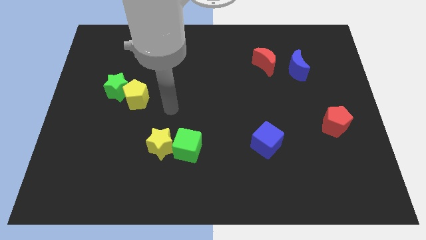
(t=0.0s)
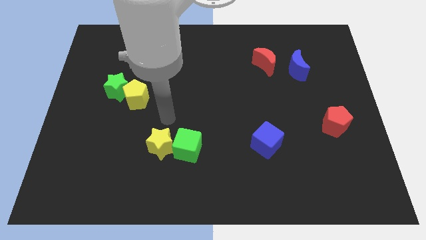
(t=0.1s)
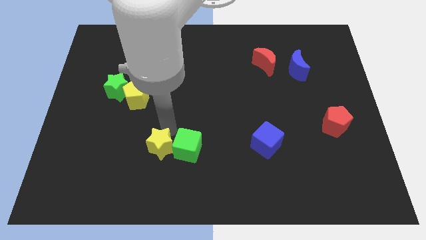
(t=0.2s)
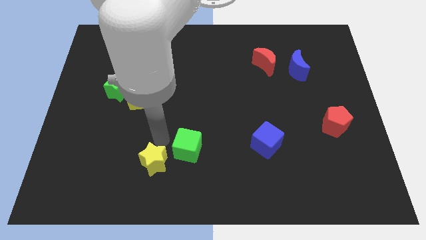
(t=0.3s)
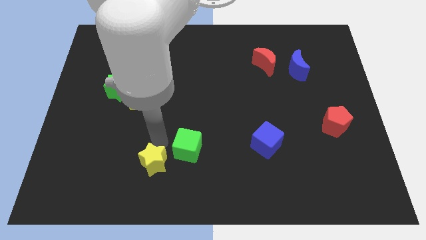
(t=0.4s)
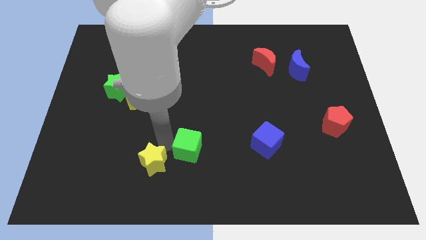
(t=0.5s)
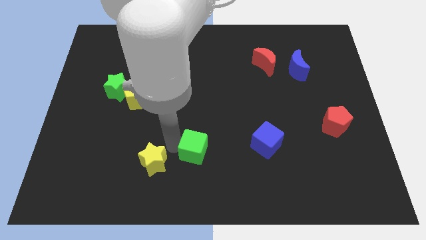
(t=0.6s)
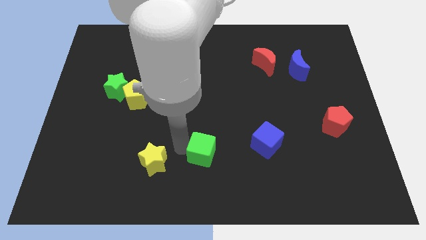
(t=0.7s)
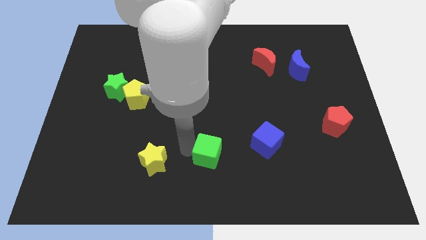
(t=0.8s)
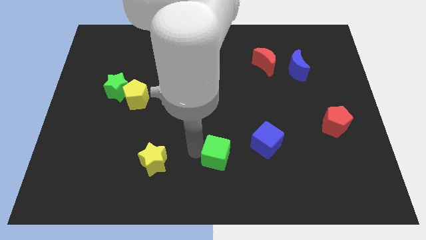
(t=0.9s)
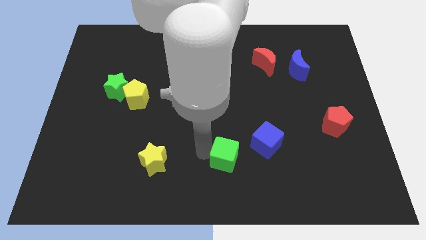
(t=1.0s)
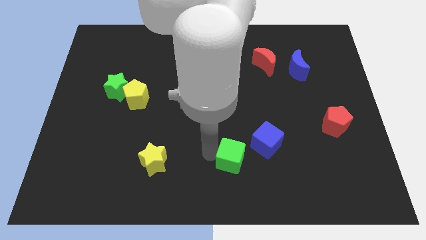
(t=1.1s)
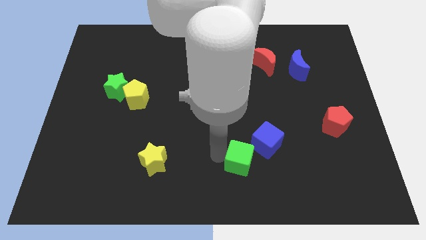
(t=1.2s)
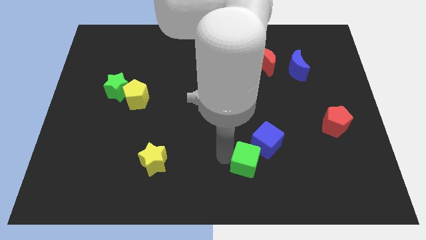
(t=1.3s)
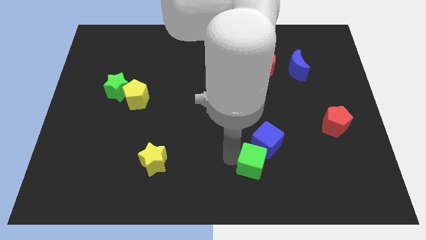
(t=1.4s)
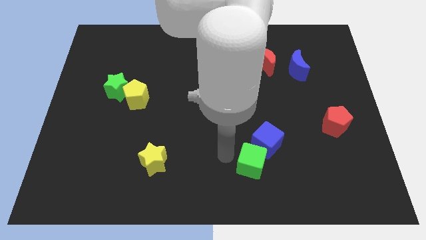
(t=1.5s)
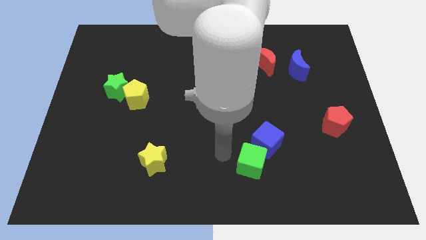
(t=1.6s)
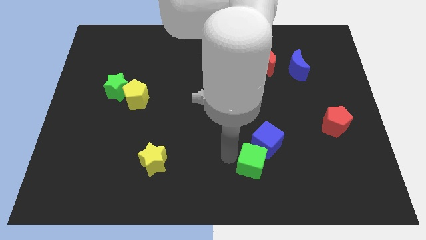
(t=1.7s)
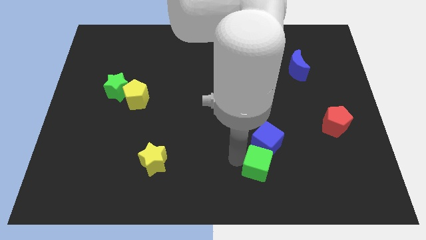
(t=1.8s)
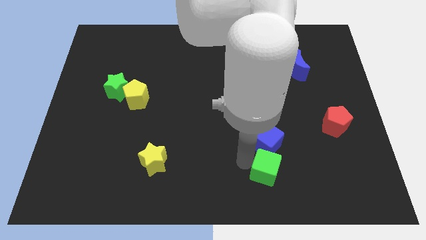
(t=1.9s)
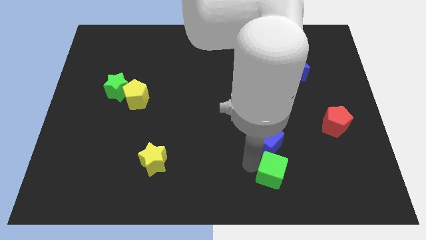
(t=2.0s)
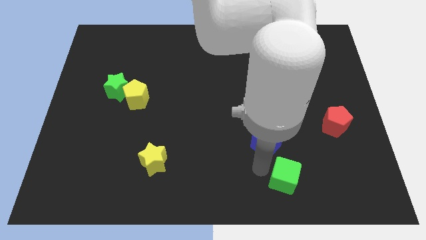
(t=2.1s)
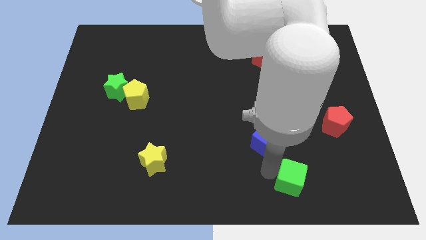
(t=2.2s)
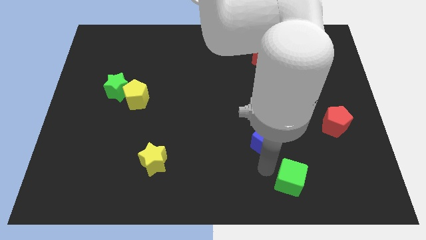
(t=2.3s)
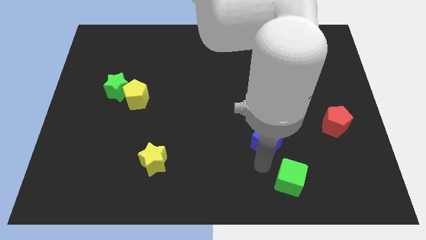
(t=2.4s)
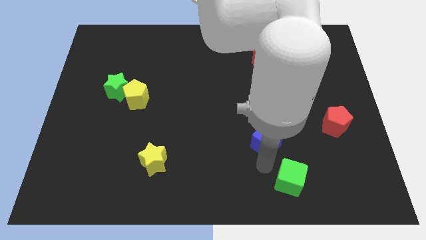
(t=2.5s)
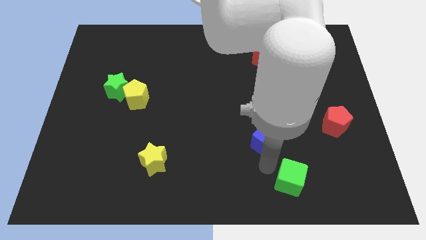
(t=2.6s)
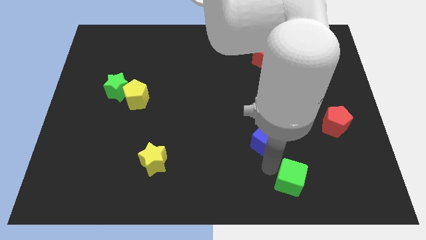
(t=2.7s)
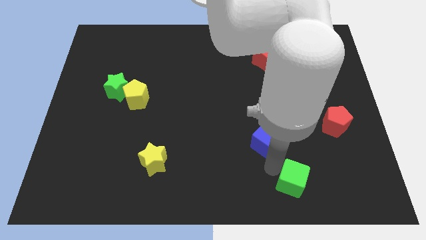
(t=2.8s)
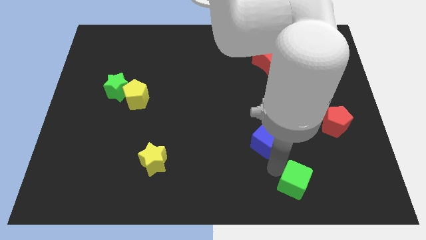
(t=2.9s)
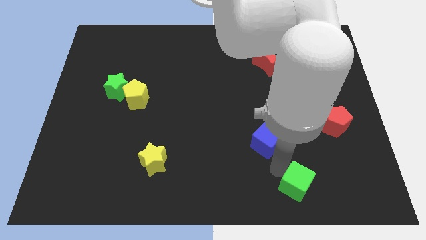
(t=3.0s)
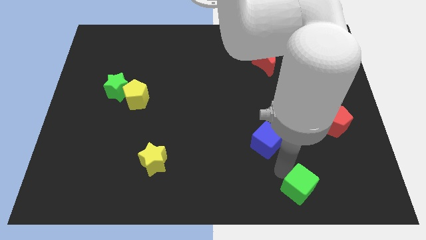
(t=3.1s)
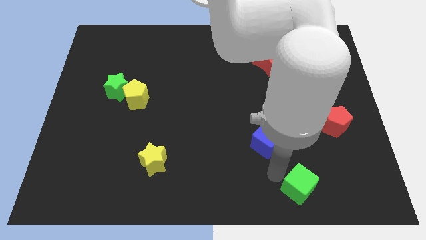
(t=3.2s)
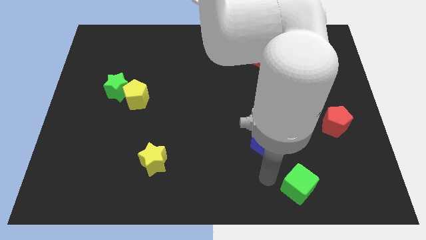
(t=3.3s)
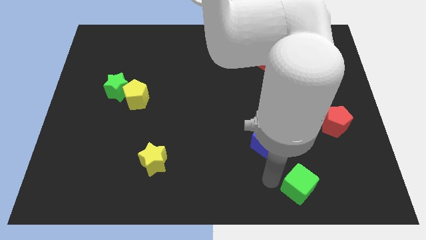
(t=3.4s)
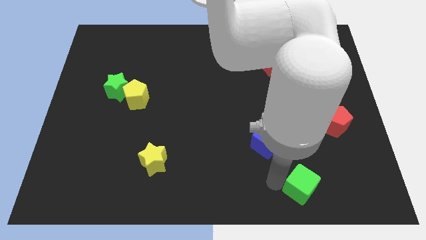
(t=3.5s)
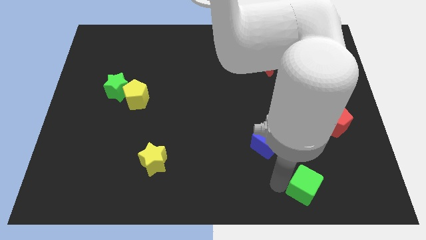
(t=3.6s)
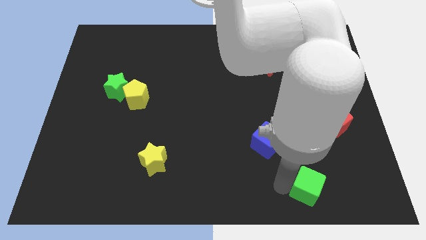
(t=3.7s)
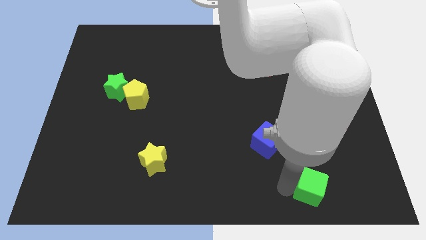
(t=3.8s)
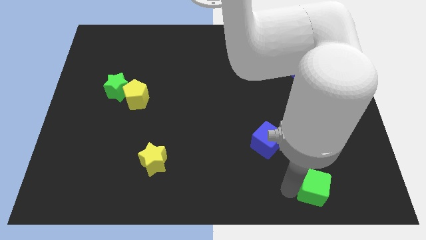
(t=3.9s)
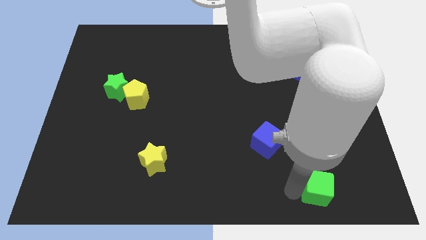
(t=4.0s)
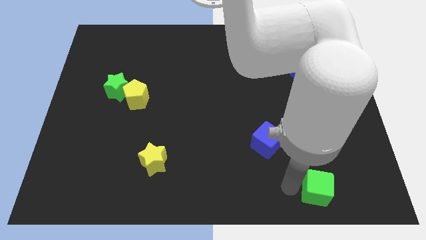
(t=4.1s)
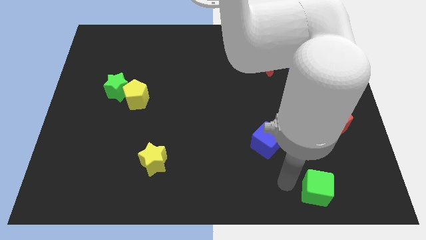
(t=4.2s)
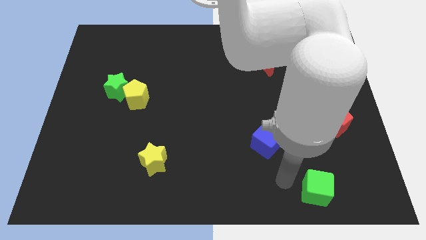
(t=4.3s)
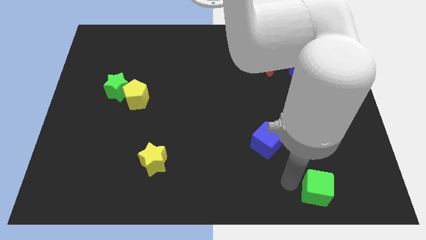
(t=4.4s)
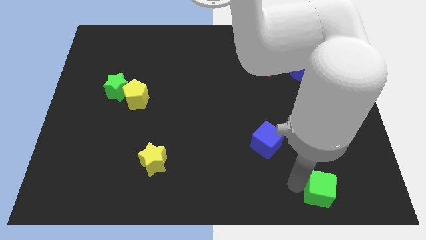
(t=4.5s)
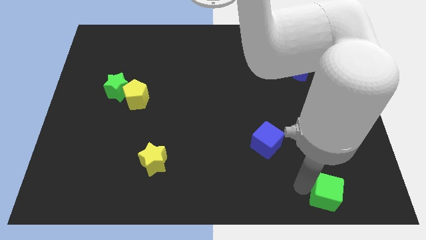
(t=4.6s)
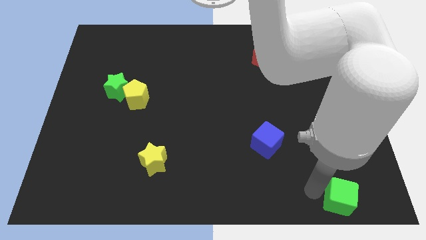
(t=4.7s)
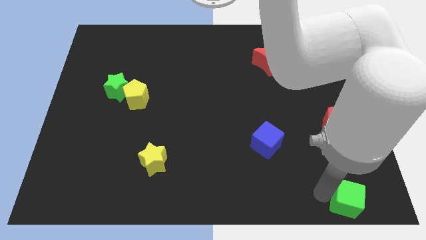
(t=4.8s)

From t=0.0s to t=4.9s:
put the green cube to the bottom right corner

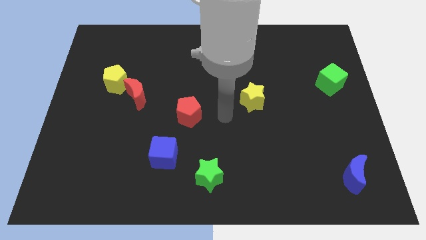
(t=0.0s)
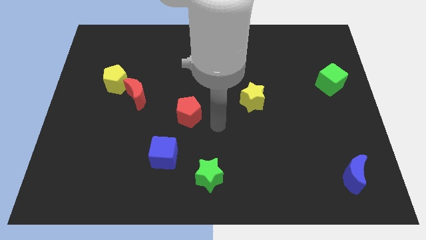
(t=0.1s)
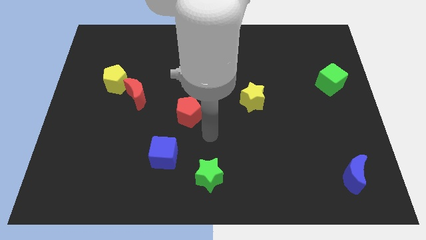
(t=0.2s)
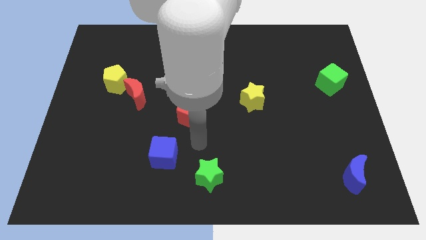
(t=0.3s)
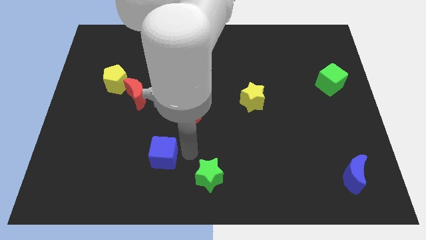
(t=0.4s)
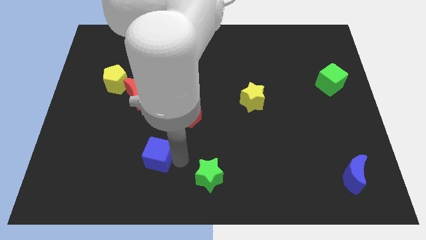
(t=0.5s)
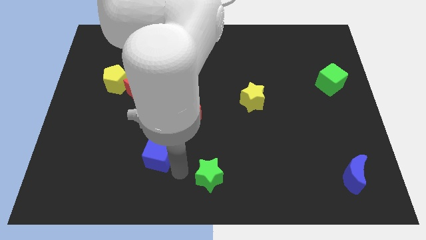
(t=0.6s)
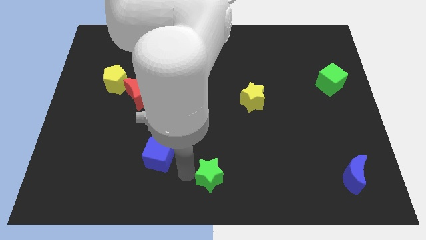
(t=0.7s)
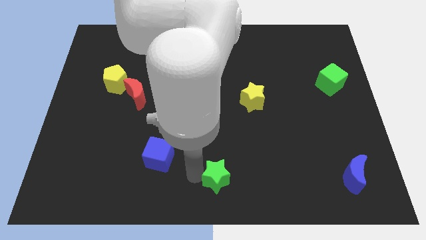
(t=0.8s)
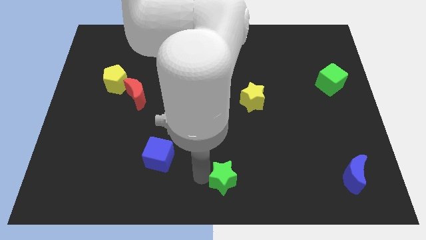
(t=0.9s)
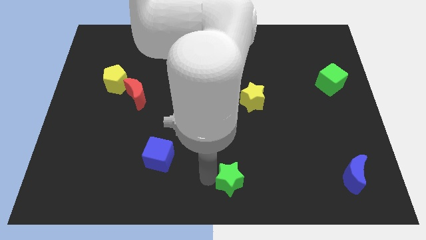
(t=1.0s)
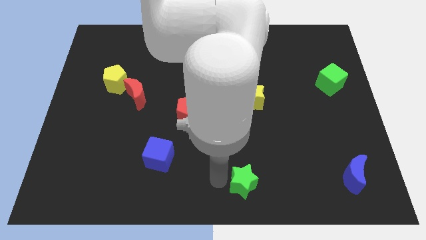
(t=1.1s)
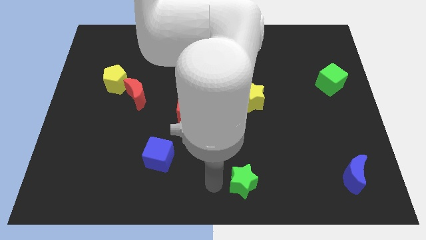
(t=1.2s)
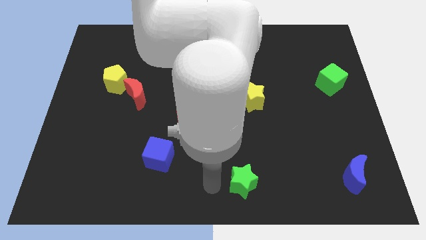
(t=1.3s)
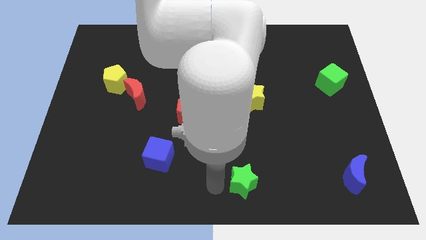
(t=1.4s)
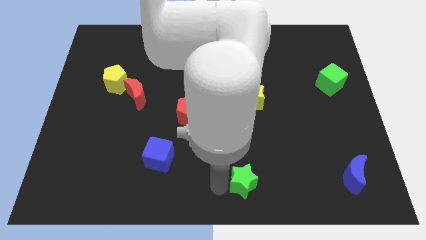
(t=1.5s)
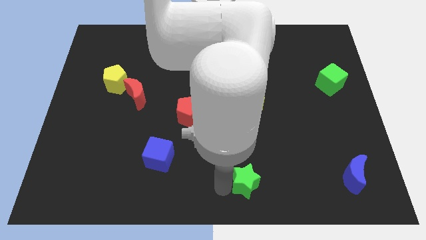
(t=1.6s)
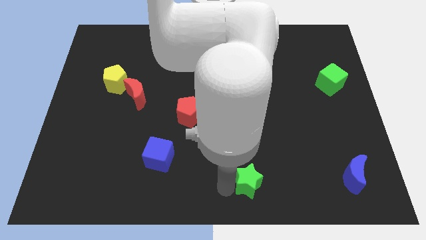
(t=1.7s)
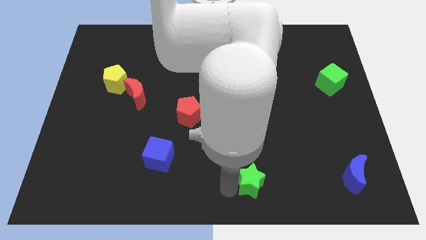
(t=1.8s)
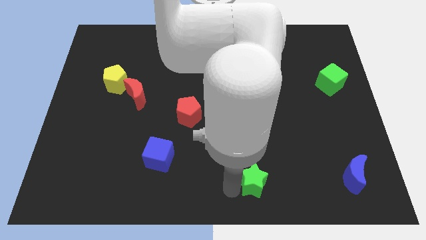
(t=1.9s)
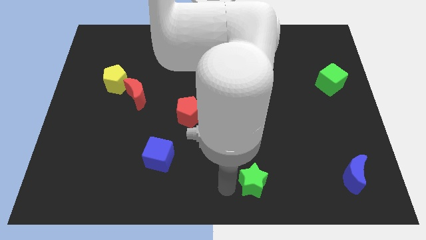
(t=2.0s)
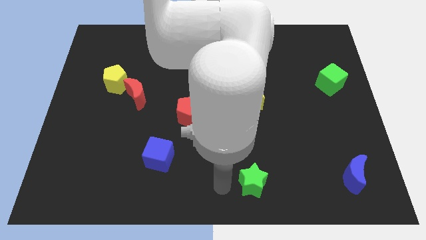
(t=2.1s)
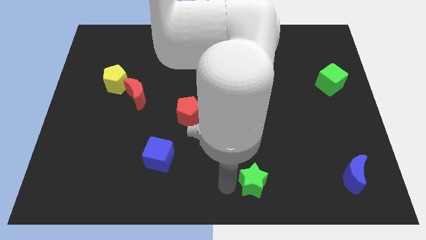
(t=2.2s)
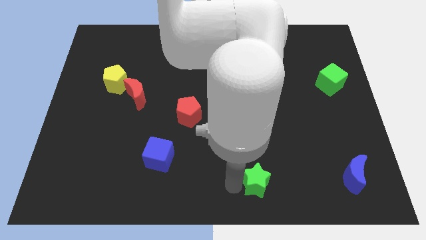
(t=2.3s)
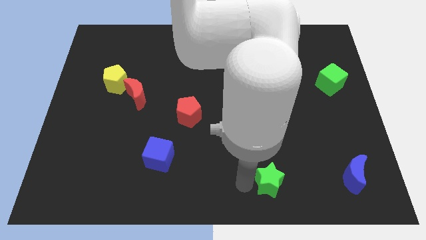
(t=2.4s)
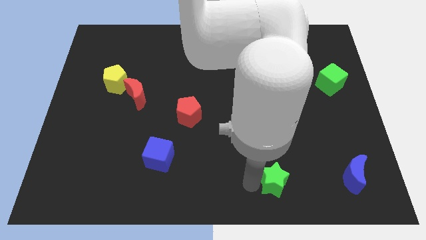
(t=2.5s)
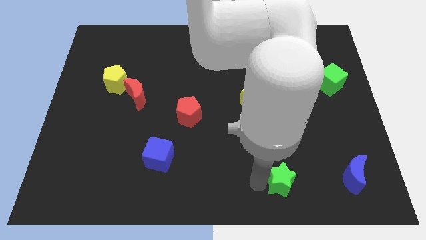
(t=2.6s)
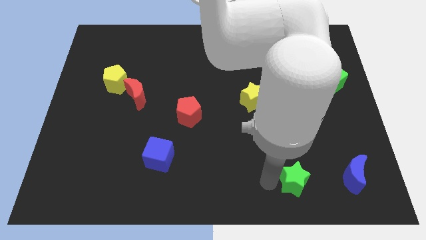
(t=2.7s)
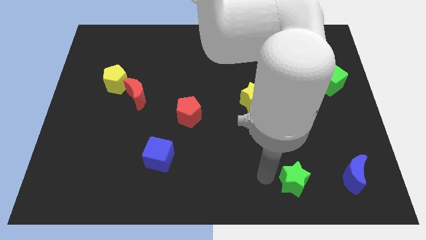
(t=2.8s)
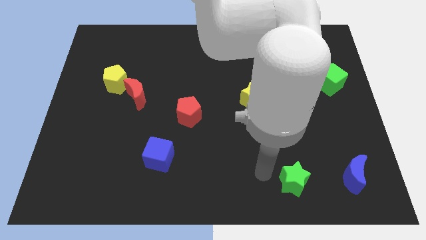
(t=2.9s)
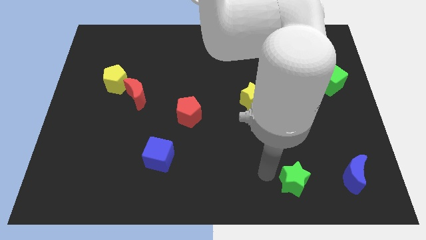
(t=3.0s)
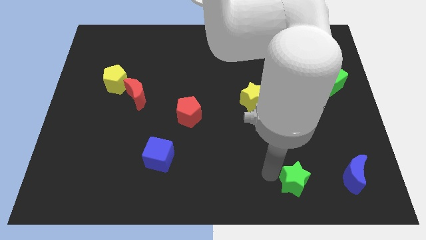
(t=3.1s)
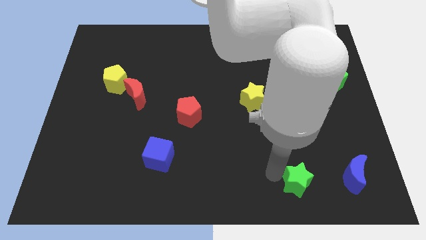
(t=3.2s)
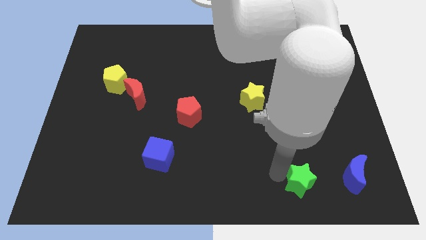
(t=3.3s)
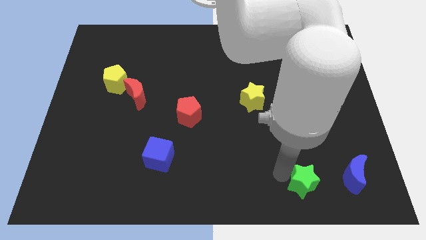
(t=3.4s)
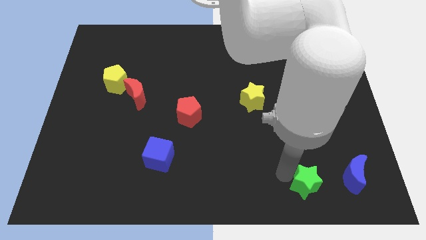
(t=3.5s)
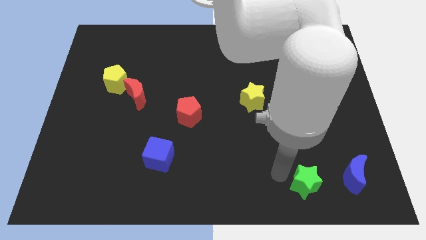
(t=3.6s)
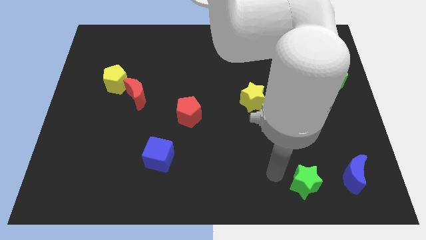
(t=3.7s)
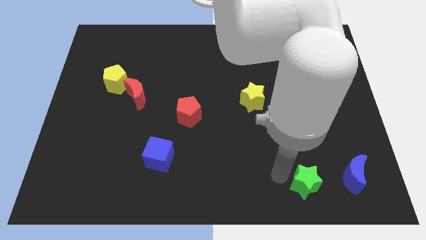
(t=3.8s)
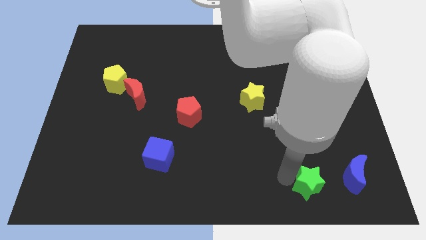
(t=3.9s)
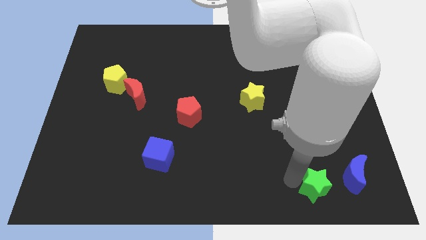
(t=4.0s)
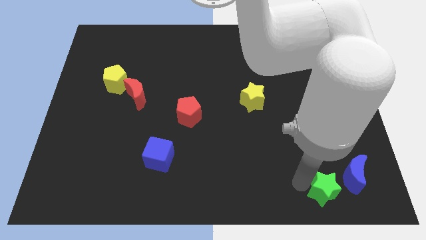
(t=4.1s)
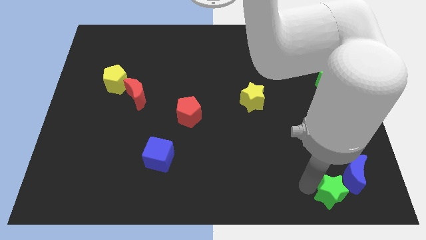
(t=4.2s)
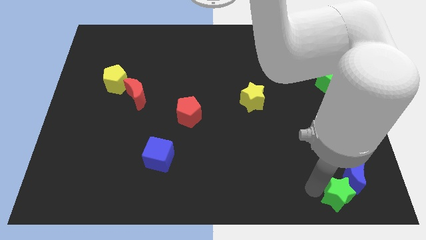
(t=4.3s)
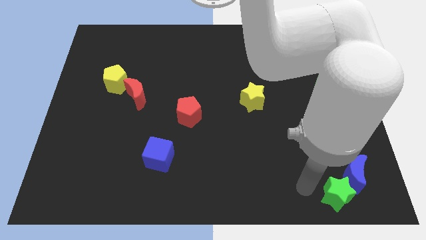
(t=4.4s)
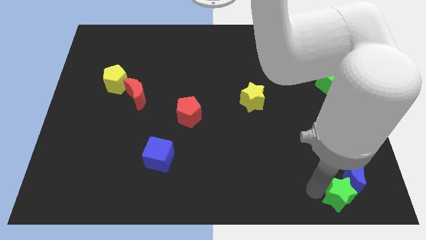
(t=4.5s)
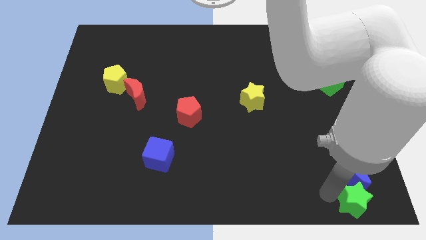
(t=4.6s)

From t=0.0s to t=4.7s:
put the green star to the bottom right of the board
